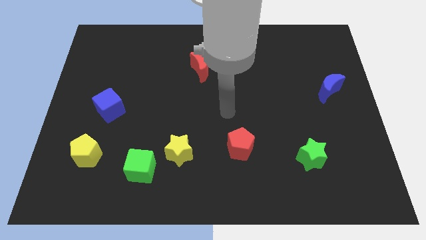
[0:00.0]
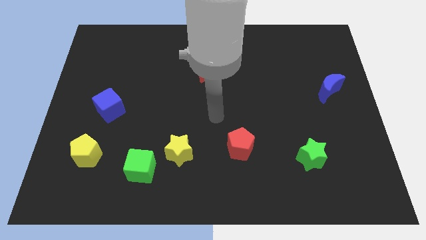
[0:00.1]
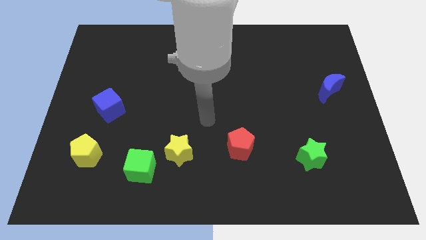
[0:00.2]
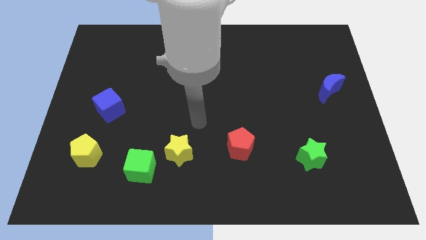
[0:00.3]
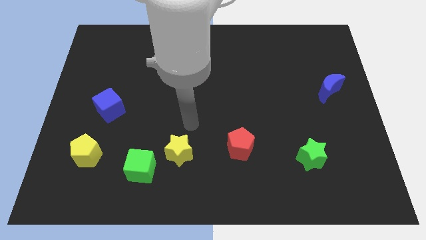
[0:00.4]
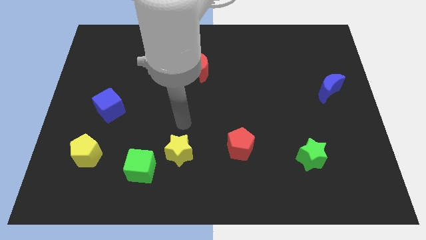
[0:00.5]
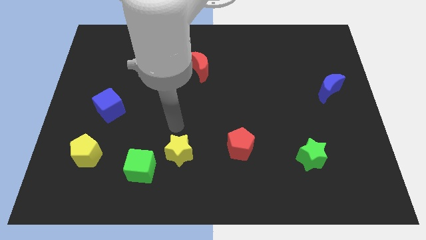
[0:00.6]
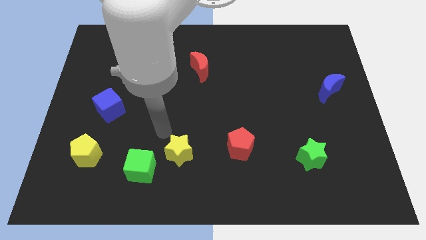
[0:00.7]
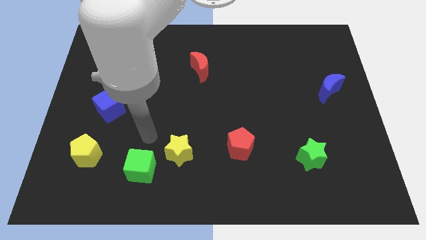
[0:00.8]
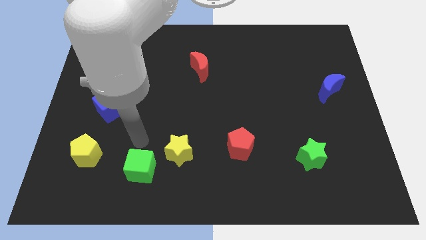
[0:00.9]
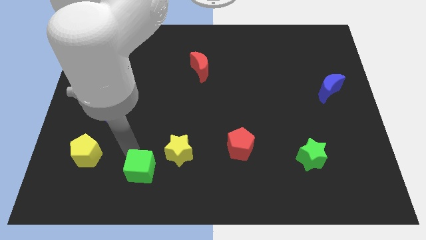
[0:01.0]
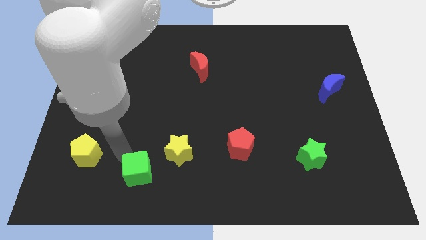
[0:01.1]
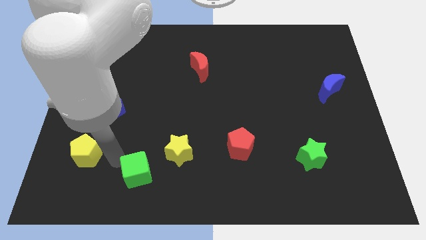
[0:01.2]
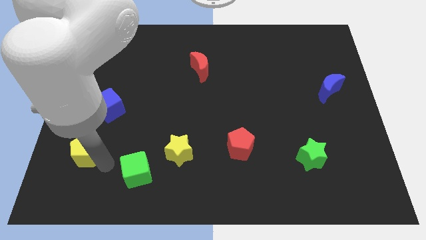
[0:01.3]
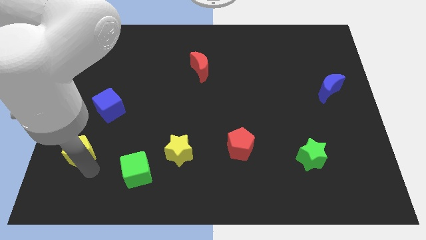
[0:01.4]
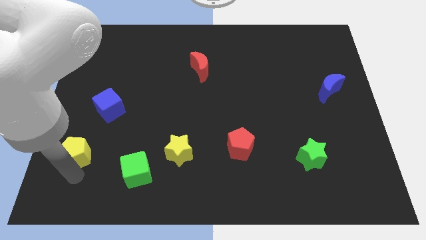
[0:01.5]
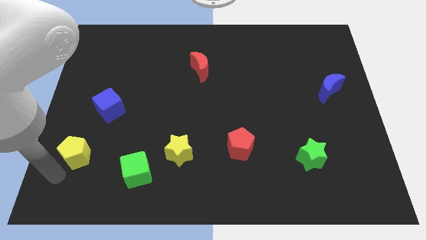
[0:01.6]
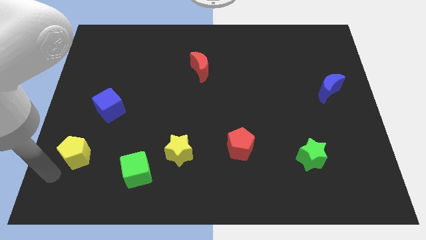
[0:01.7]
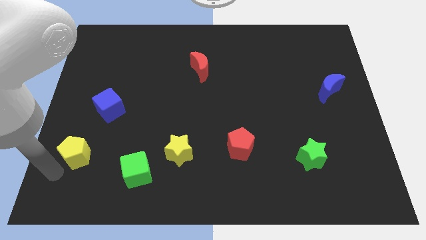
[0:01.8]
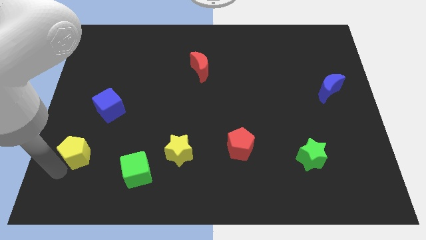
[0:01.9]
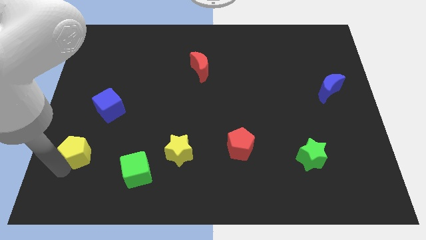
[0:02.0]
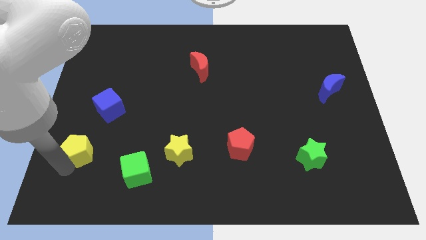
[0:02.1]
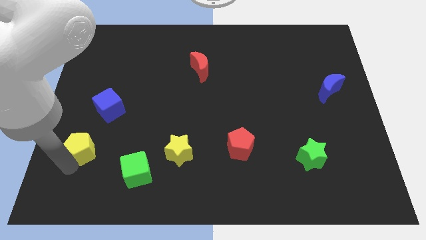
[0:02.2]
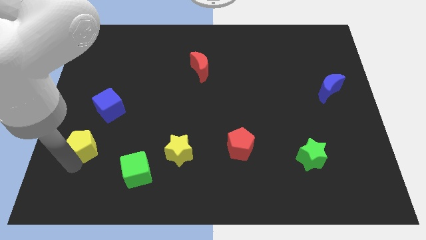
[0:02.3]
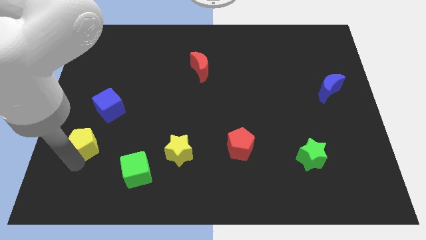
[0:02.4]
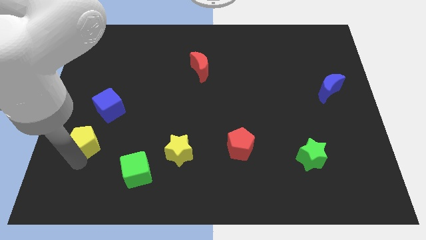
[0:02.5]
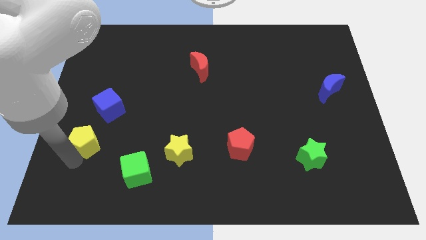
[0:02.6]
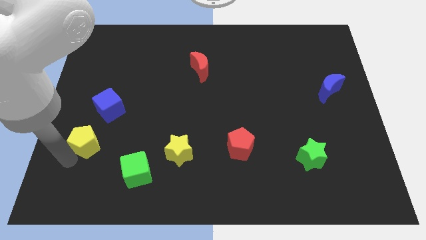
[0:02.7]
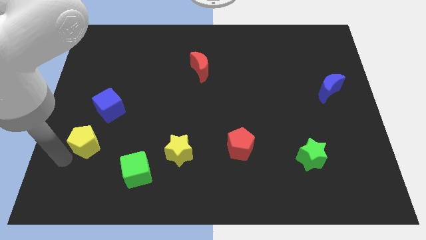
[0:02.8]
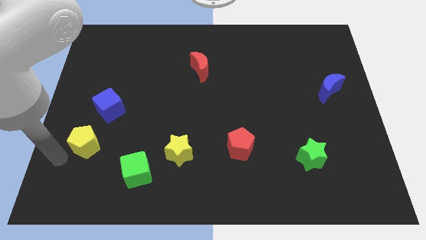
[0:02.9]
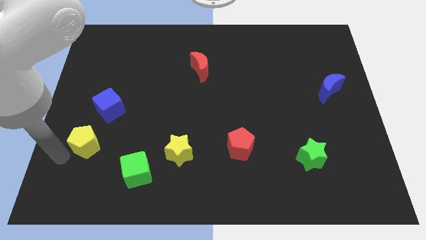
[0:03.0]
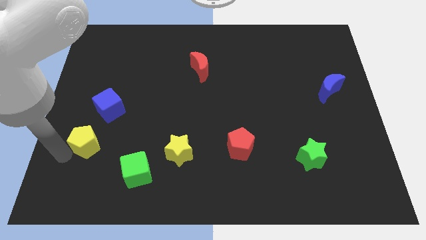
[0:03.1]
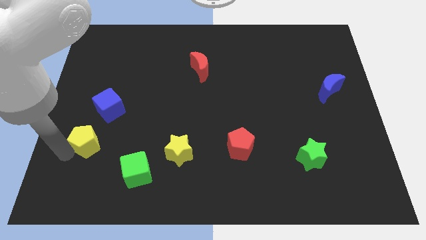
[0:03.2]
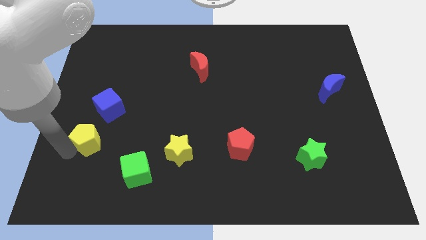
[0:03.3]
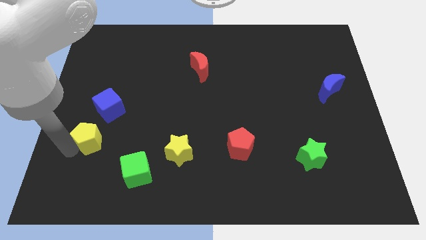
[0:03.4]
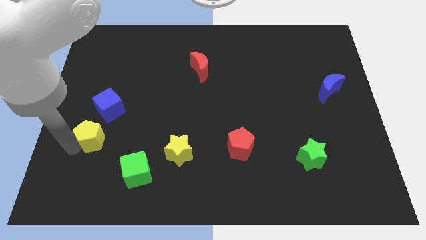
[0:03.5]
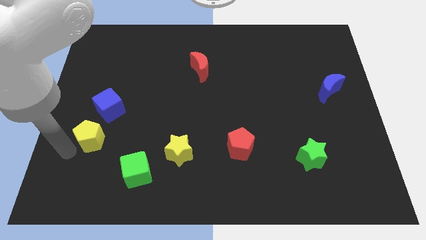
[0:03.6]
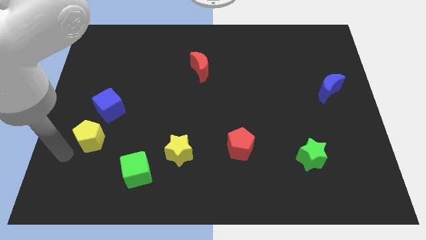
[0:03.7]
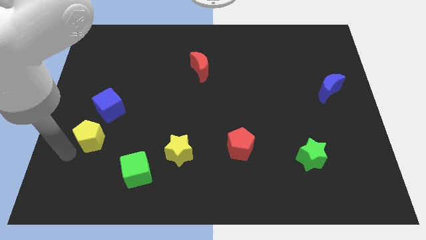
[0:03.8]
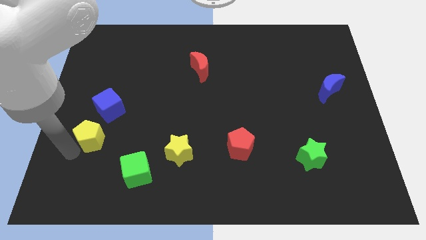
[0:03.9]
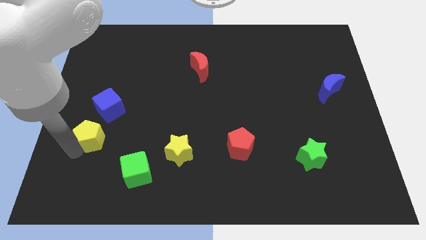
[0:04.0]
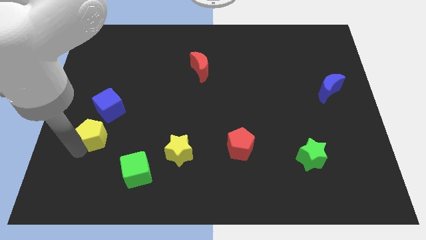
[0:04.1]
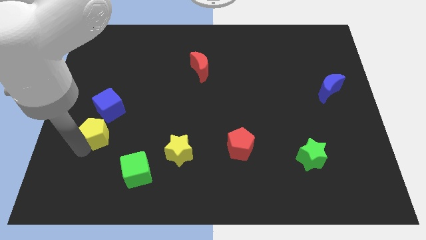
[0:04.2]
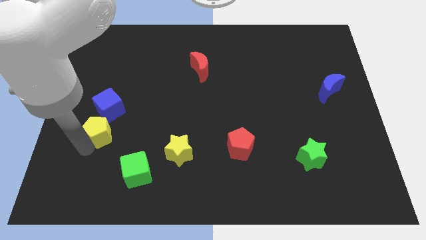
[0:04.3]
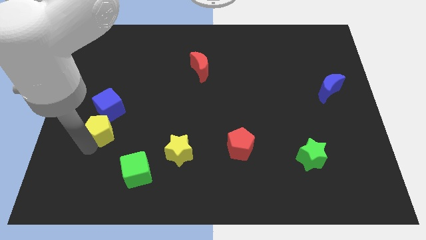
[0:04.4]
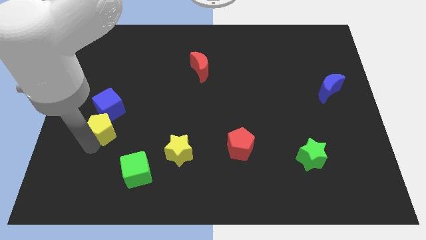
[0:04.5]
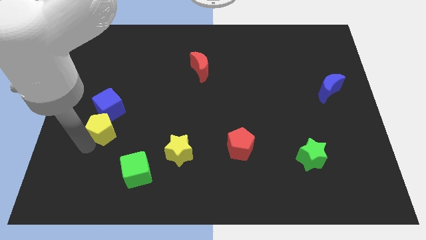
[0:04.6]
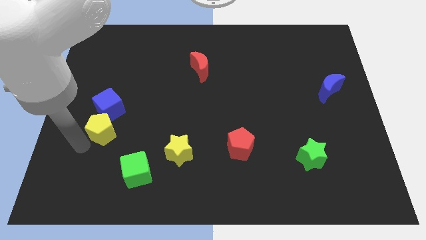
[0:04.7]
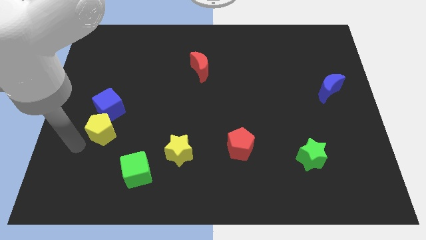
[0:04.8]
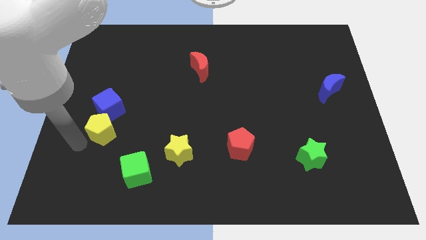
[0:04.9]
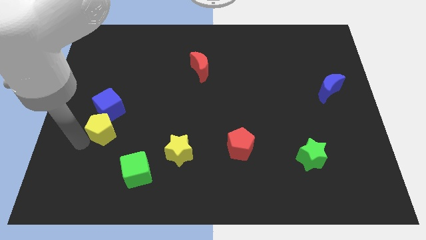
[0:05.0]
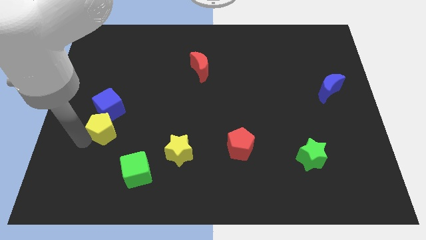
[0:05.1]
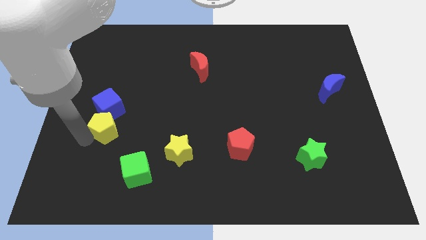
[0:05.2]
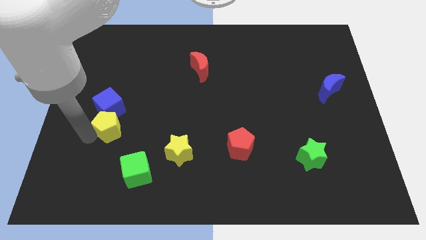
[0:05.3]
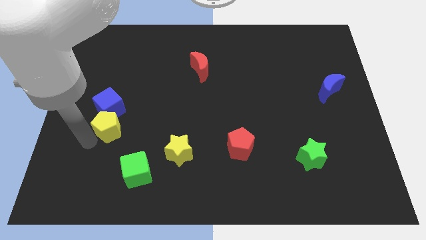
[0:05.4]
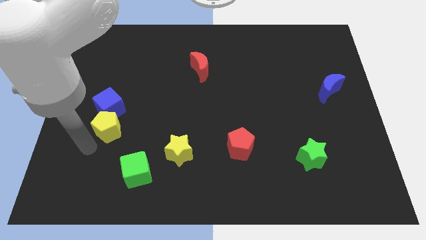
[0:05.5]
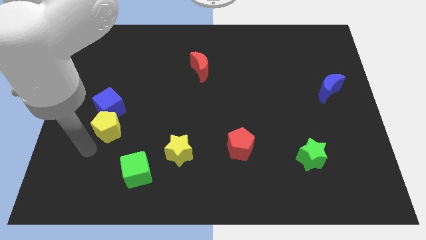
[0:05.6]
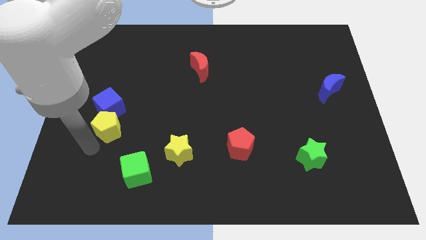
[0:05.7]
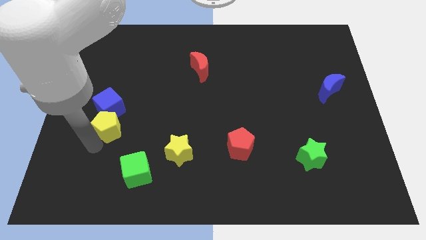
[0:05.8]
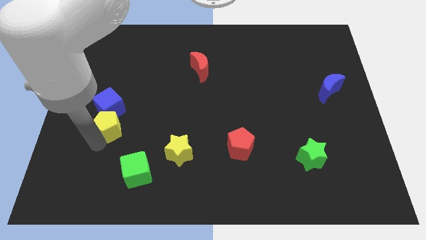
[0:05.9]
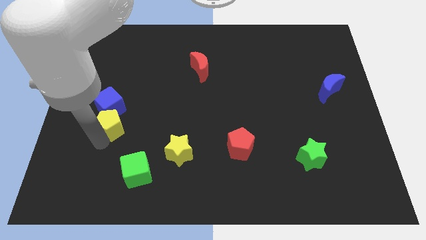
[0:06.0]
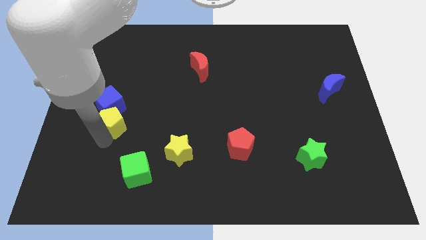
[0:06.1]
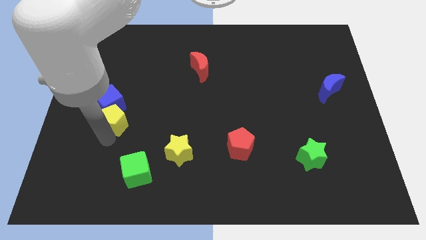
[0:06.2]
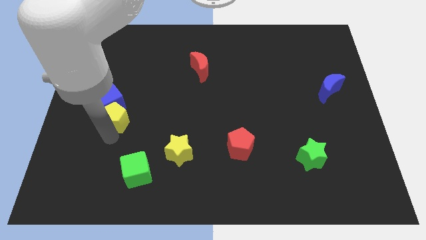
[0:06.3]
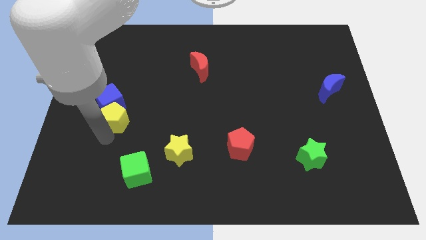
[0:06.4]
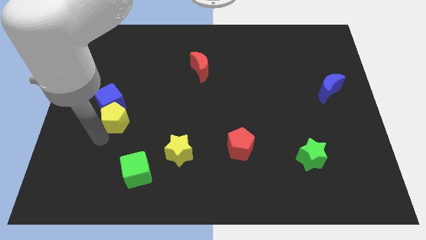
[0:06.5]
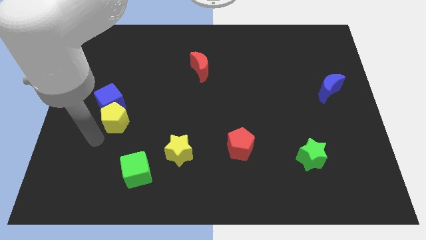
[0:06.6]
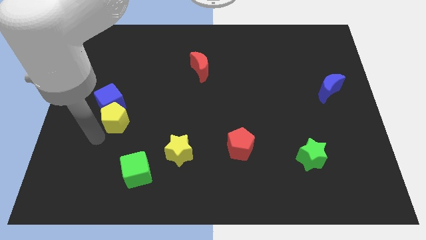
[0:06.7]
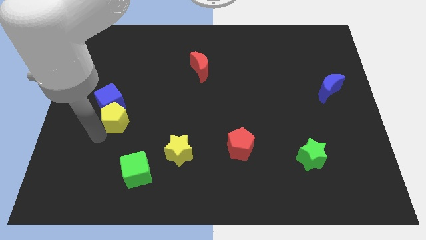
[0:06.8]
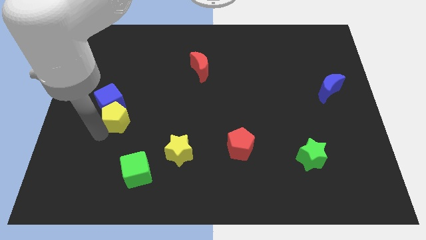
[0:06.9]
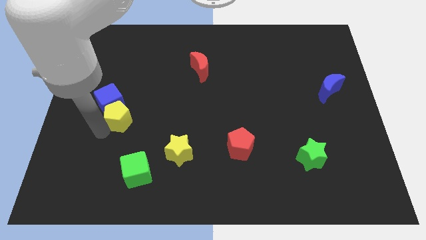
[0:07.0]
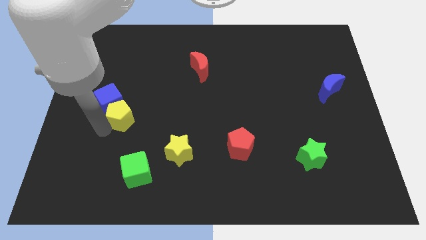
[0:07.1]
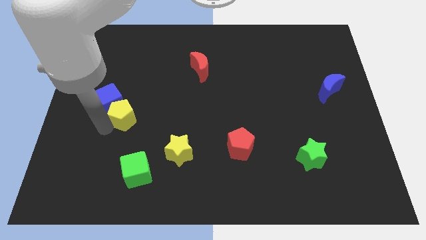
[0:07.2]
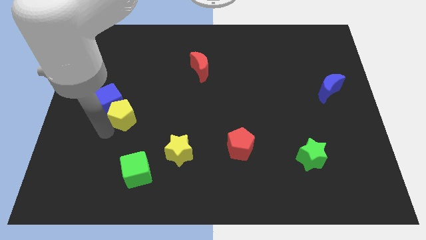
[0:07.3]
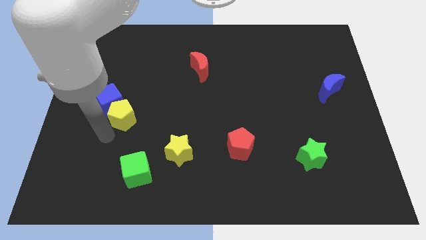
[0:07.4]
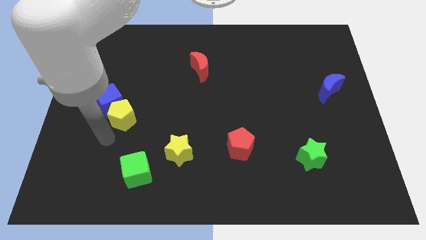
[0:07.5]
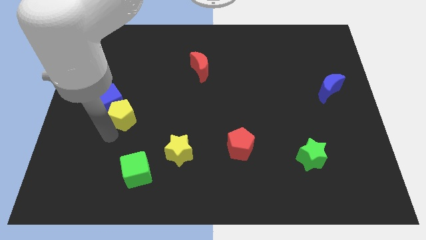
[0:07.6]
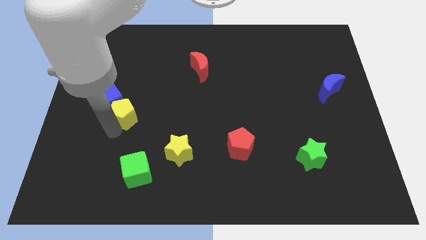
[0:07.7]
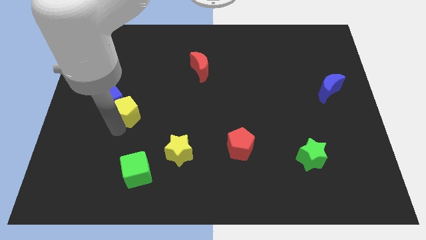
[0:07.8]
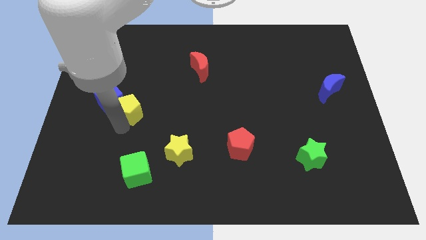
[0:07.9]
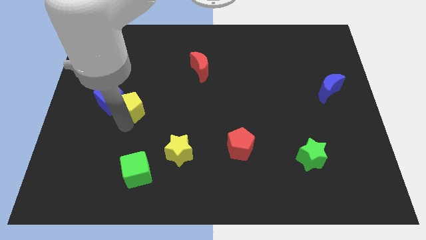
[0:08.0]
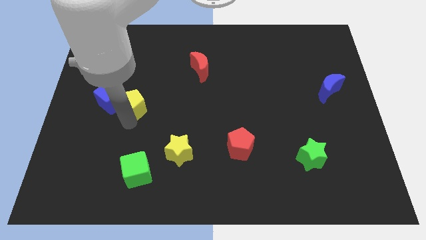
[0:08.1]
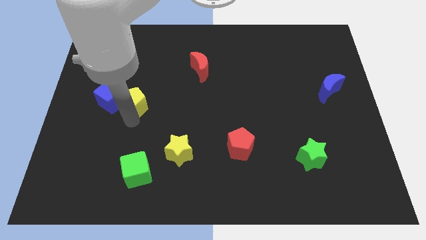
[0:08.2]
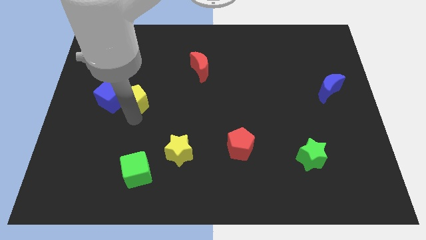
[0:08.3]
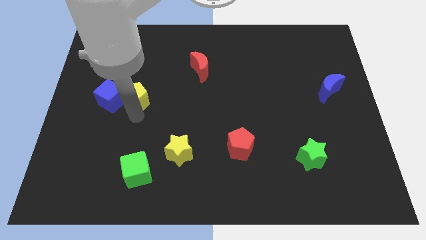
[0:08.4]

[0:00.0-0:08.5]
put the yellow pentagon diagonally up and to the right of the blue cube
